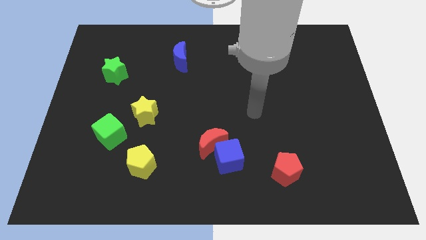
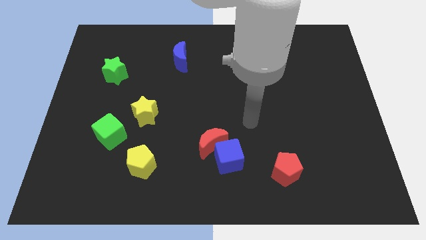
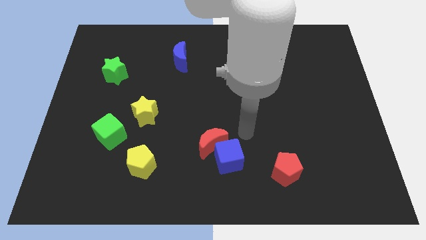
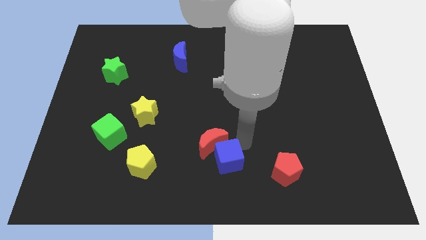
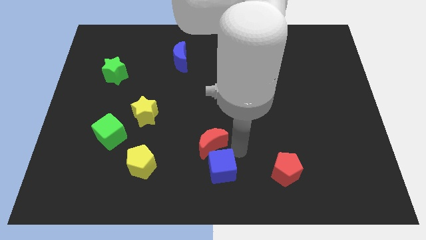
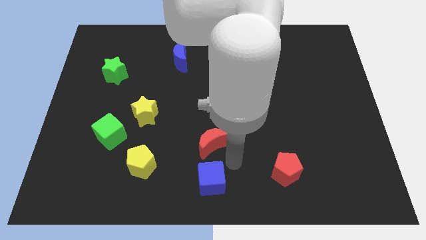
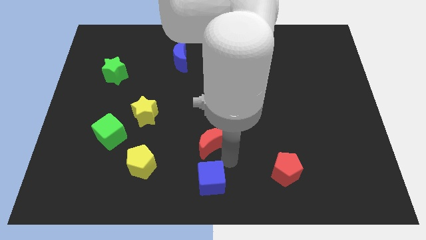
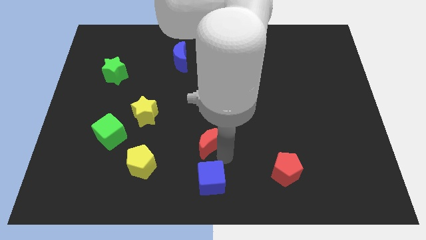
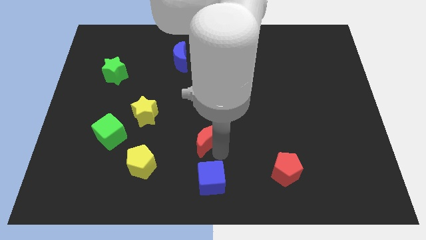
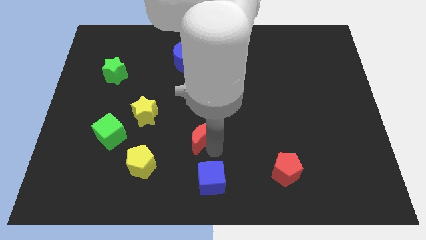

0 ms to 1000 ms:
move the red moon away from the blue cube

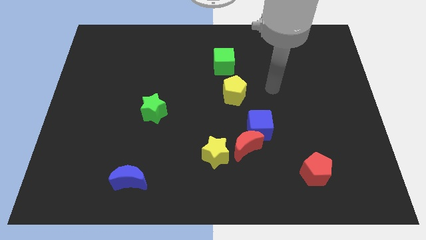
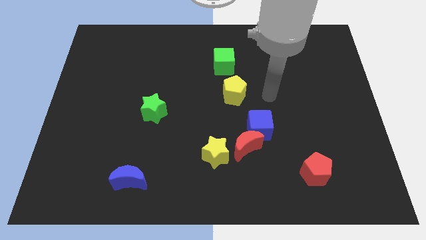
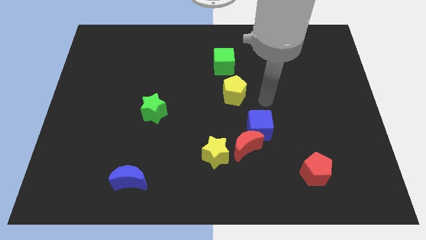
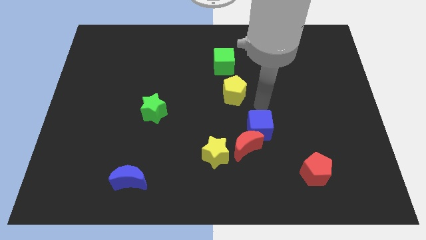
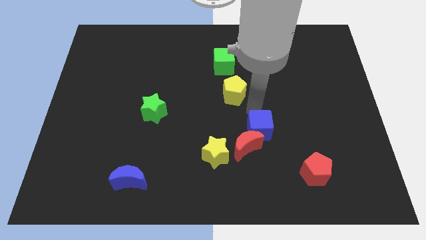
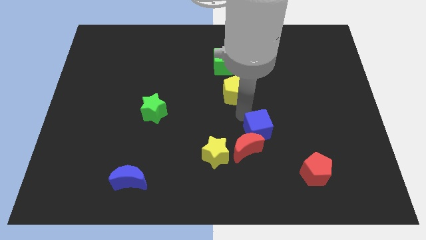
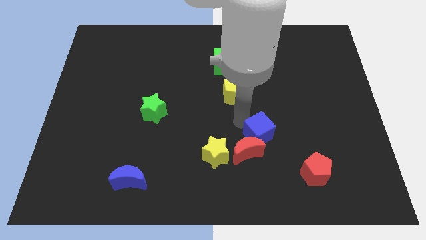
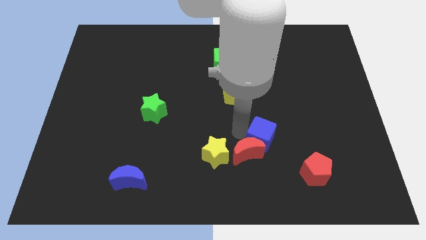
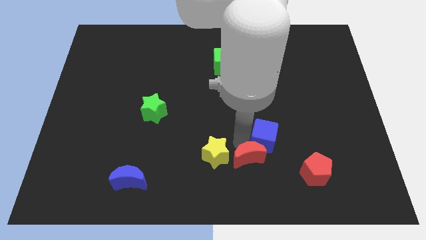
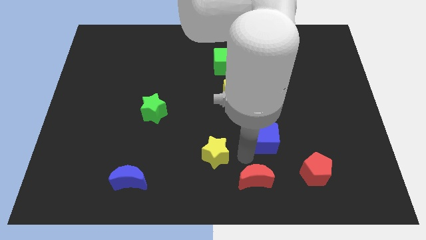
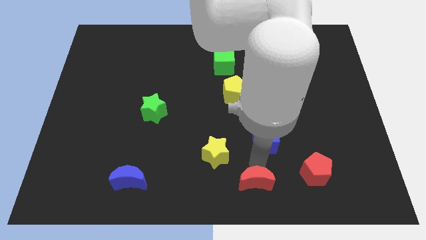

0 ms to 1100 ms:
pull the blue cube apart from the red moon

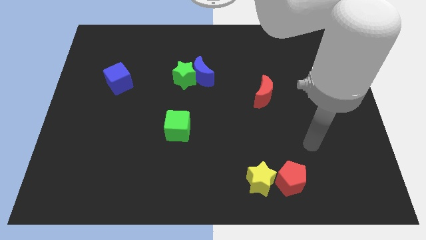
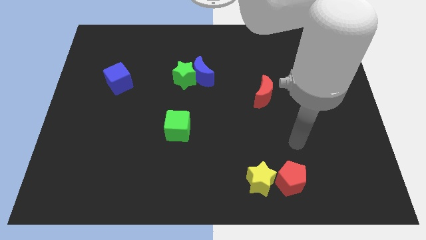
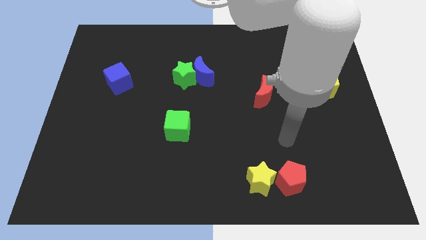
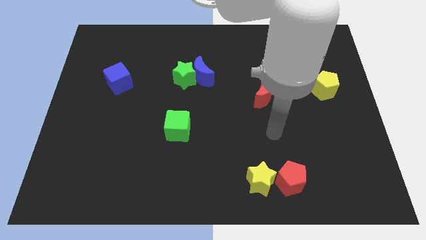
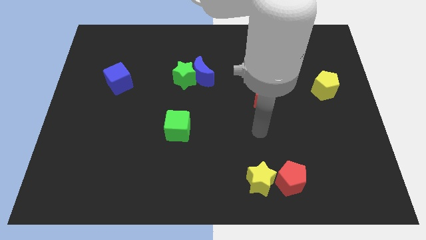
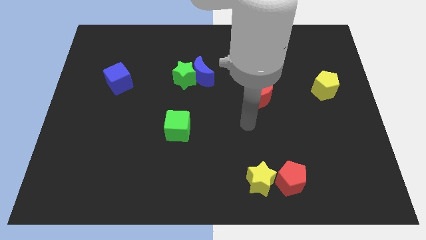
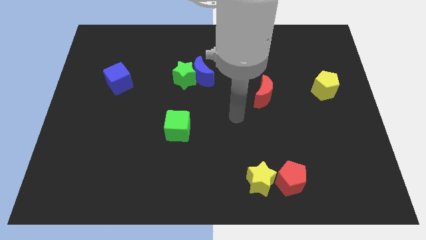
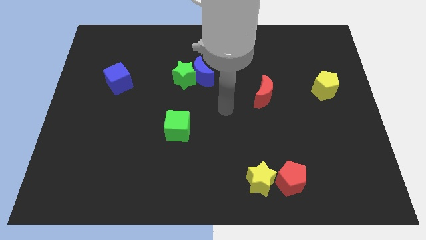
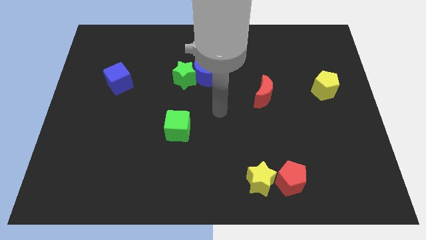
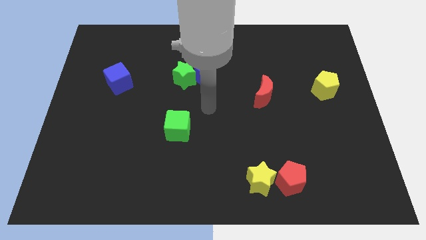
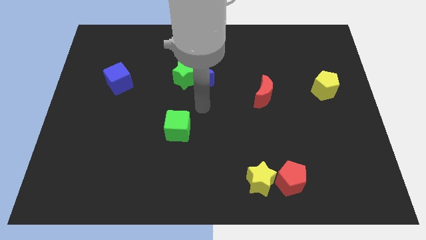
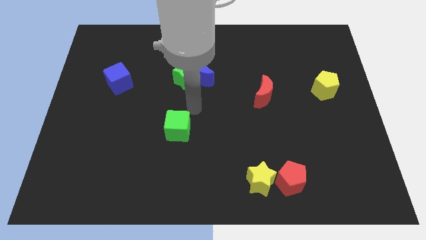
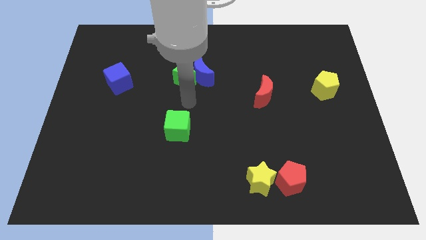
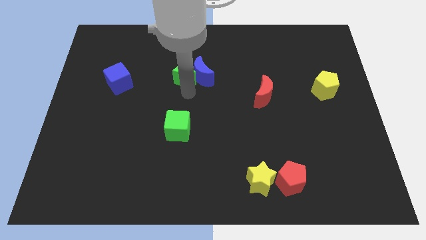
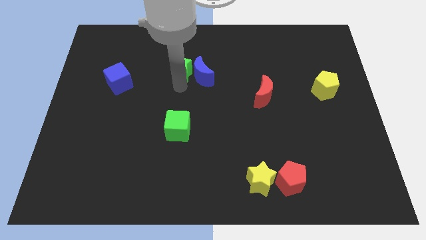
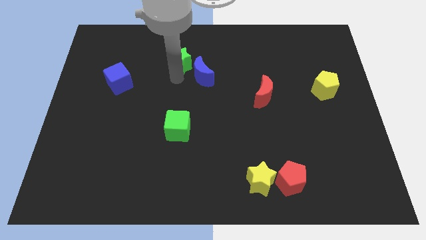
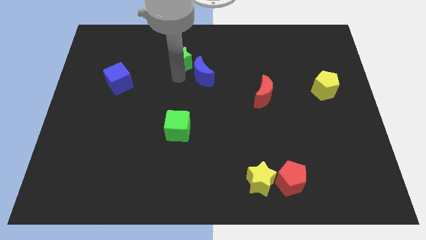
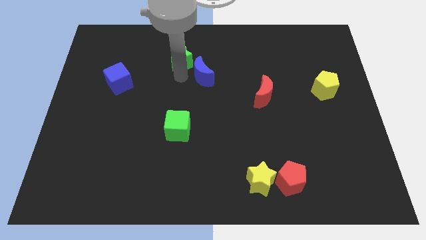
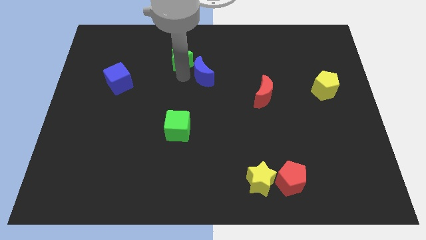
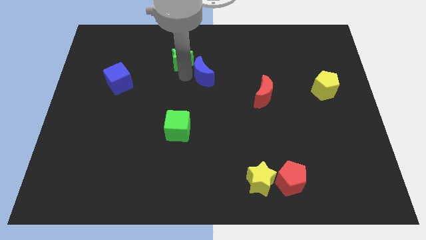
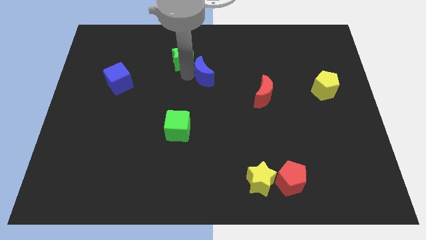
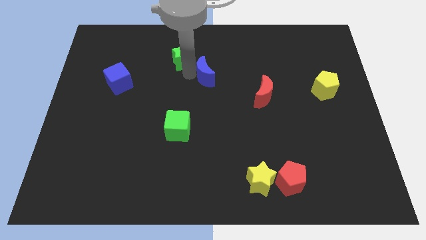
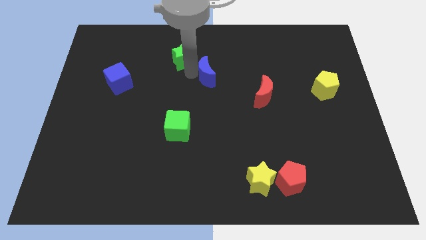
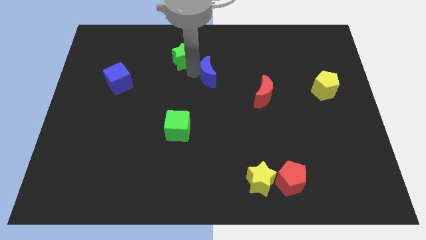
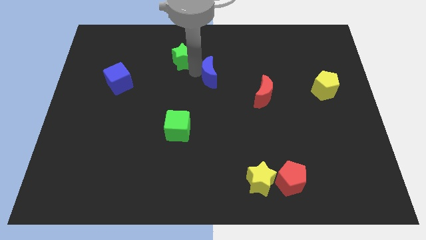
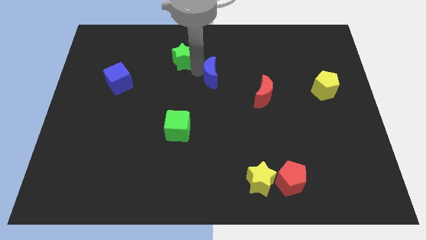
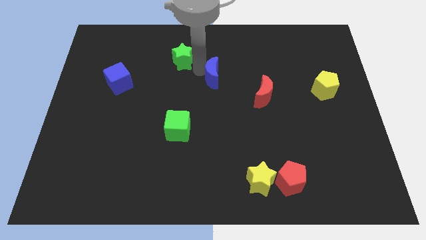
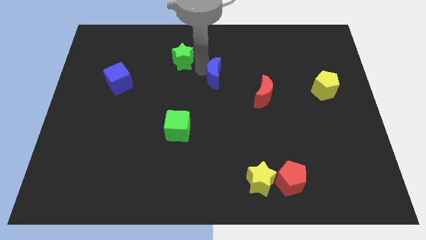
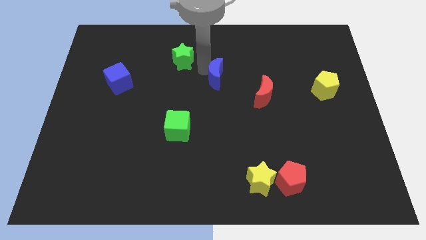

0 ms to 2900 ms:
move the blue moon away from the green star

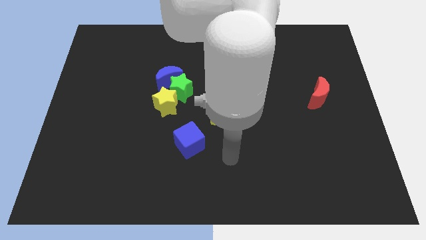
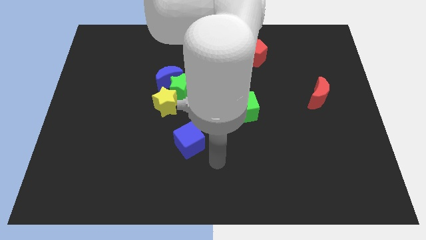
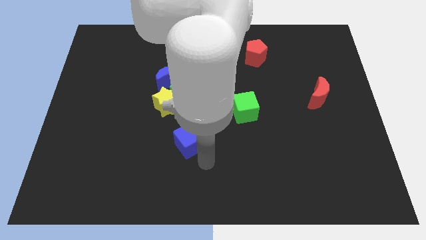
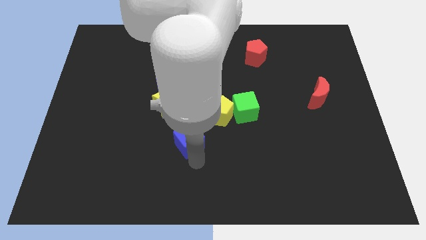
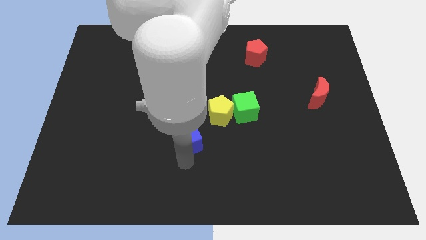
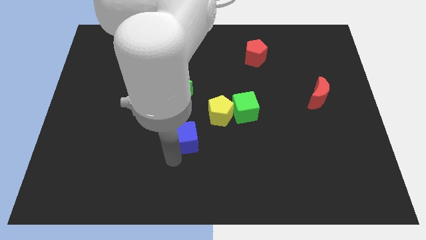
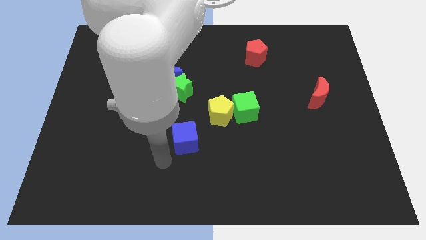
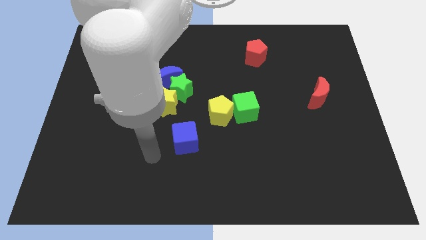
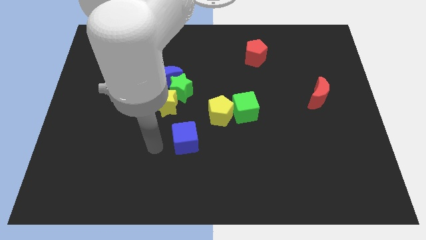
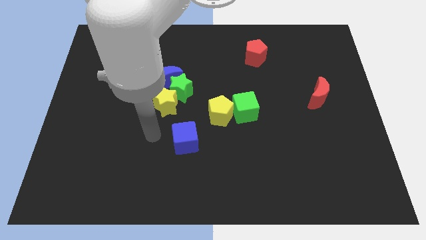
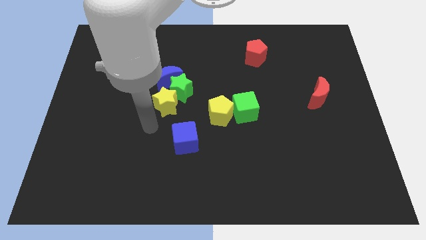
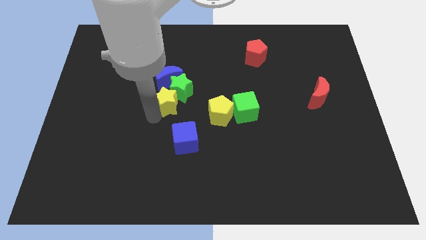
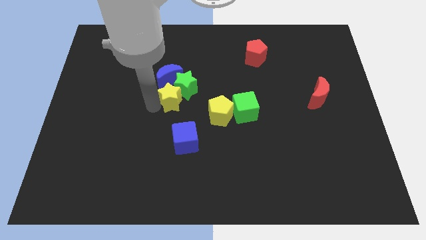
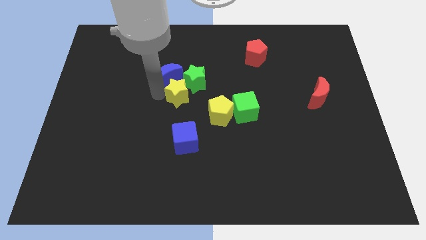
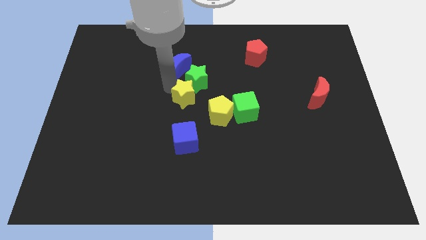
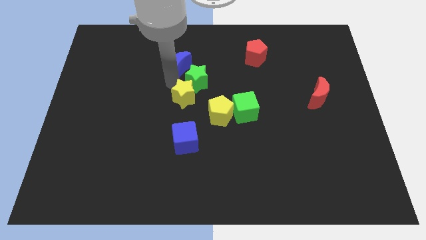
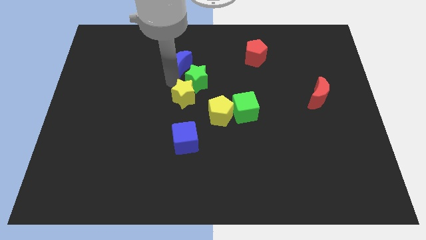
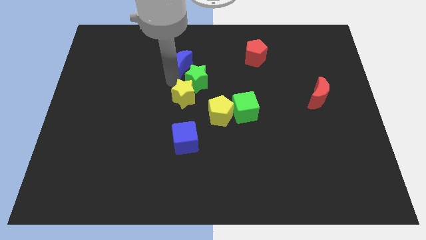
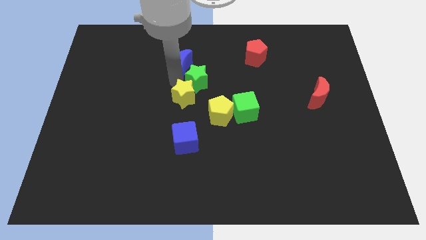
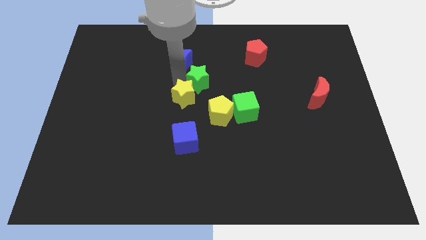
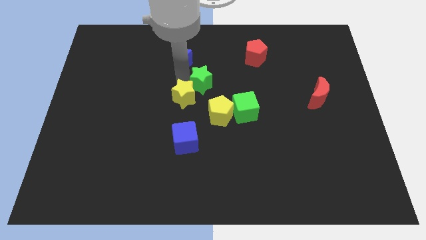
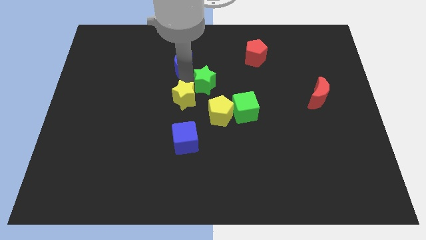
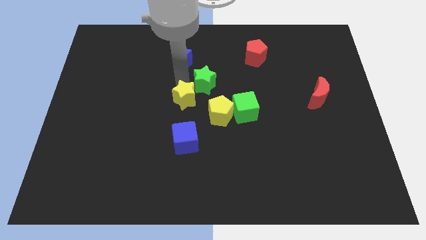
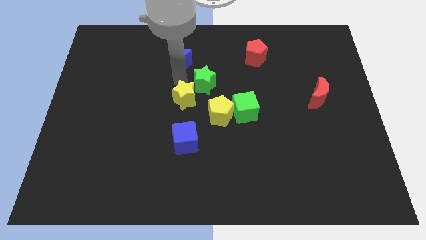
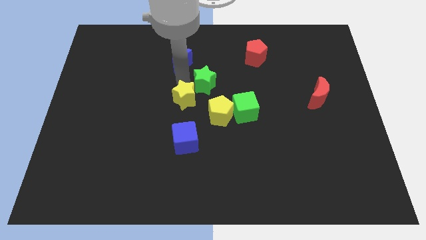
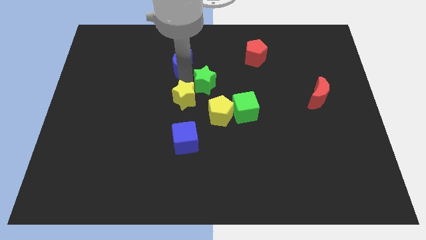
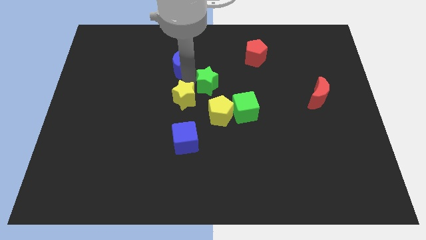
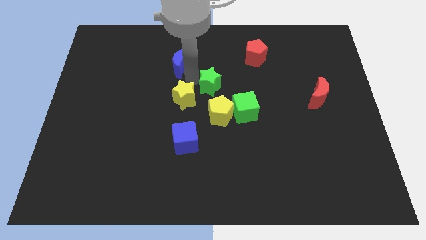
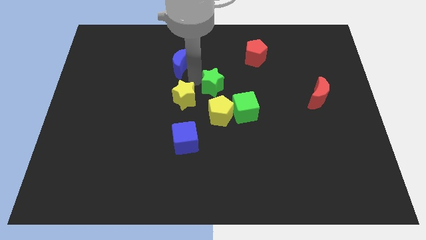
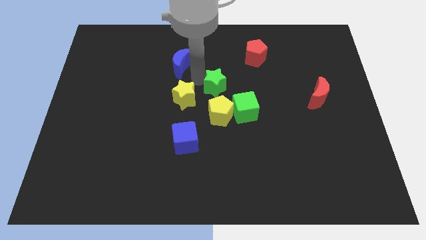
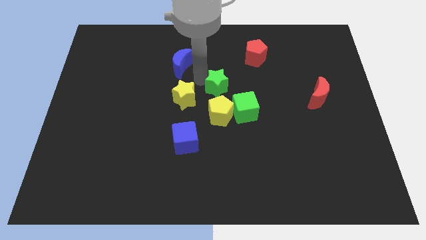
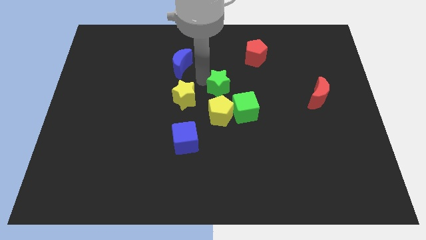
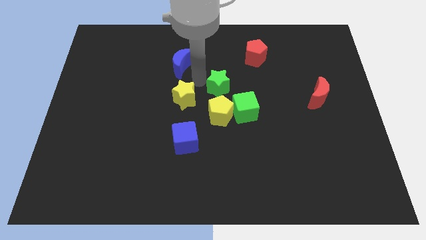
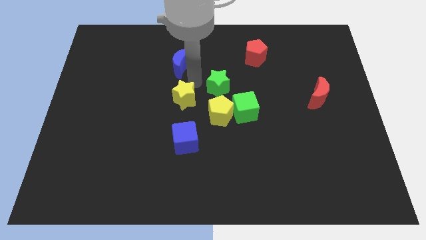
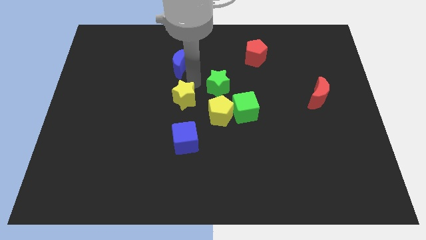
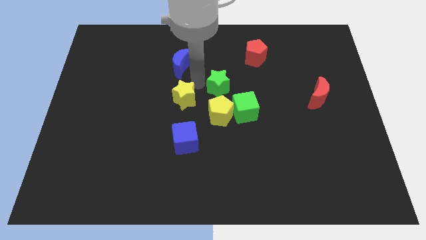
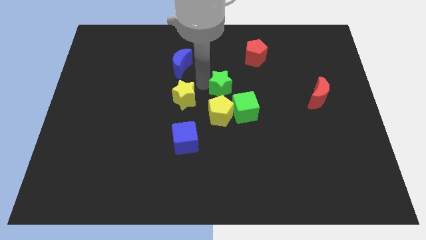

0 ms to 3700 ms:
move the green star away from the blue moon and yellow star

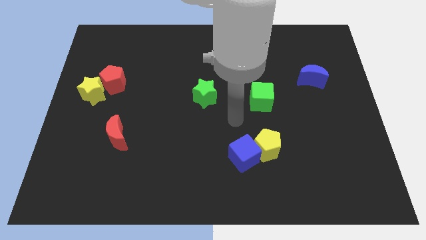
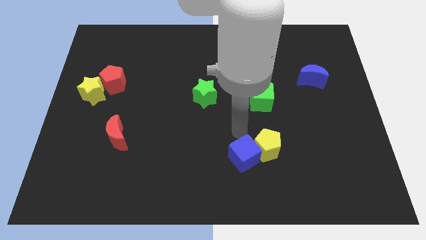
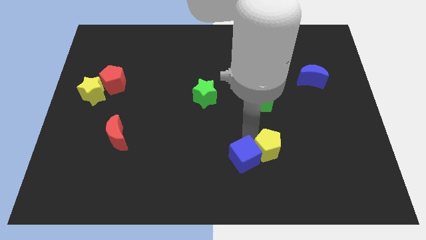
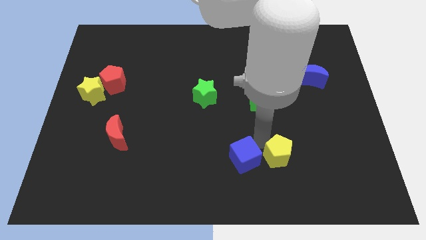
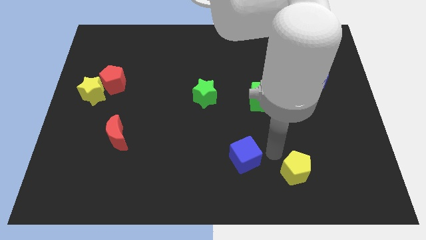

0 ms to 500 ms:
move the blue cube away from the yellow pentagon

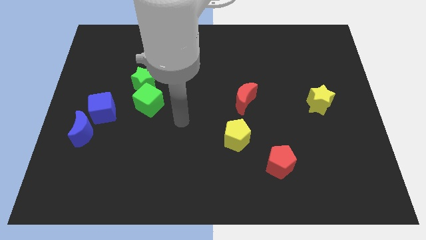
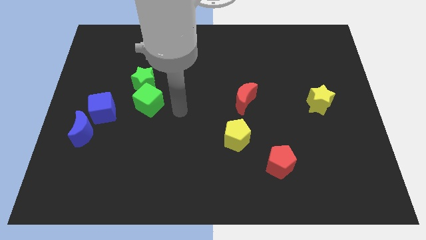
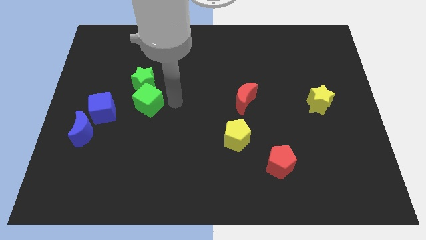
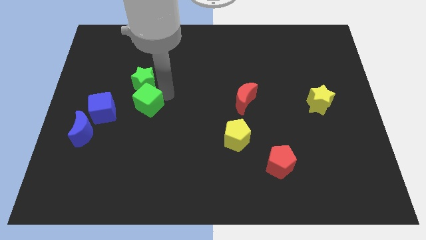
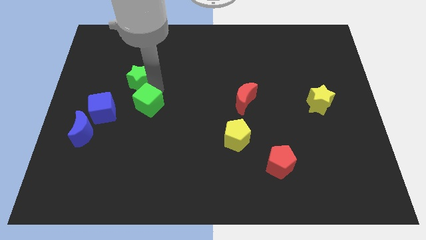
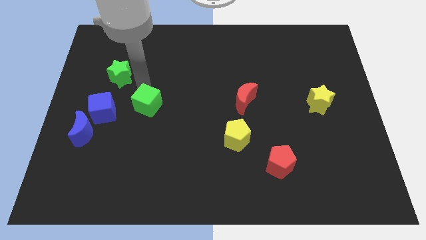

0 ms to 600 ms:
separate the green cube from the green star
